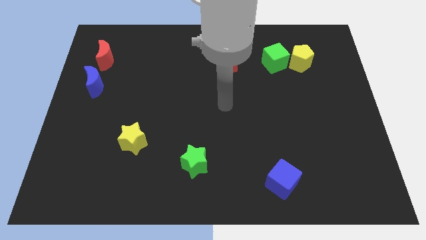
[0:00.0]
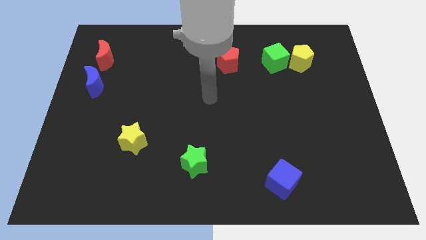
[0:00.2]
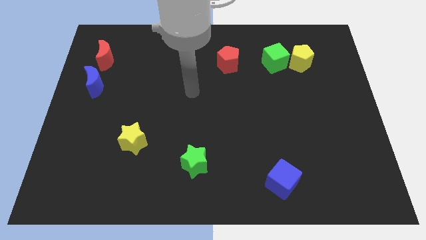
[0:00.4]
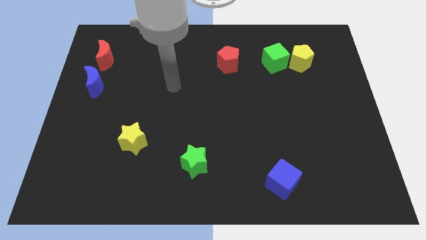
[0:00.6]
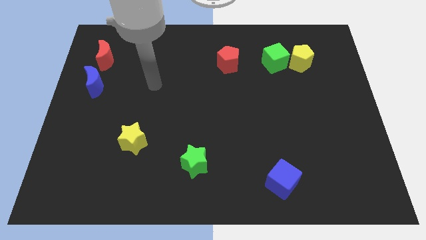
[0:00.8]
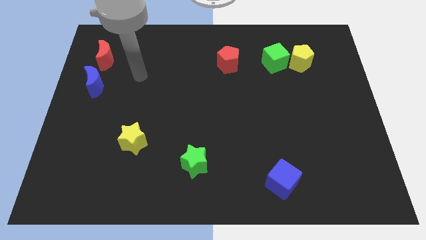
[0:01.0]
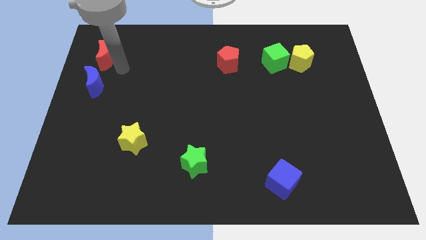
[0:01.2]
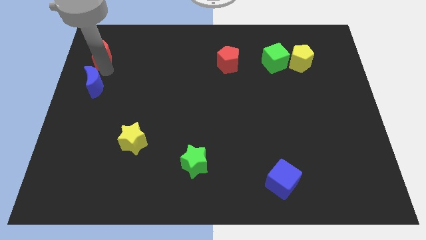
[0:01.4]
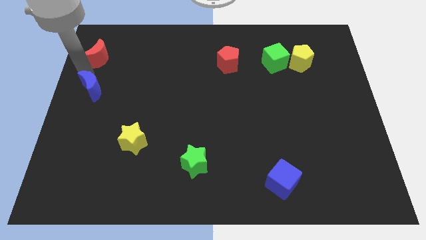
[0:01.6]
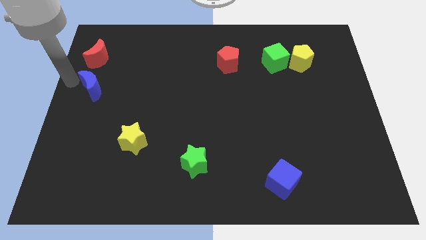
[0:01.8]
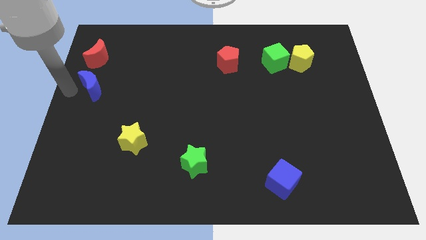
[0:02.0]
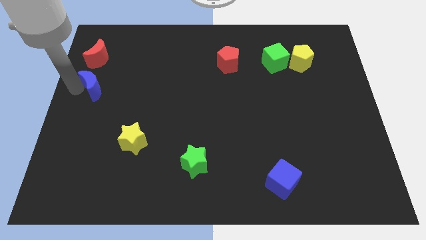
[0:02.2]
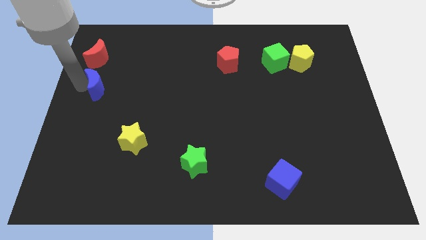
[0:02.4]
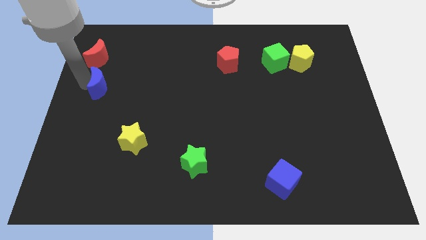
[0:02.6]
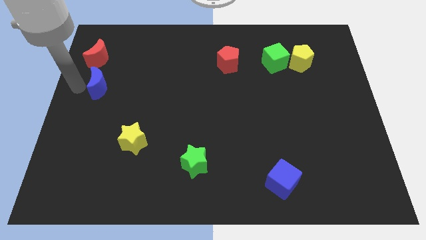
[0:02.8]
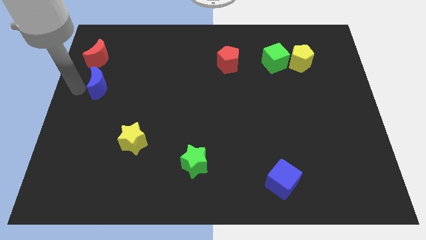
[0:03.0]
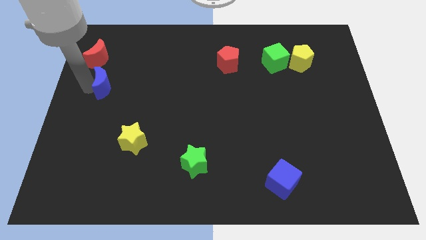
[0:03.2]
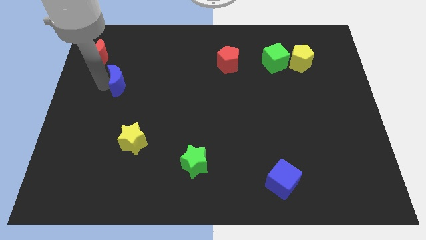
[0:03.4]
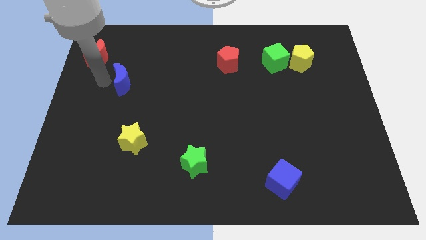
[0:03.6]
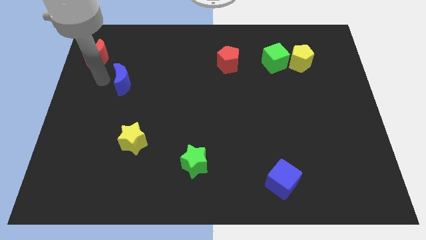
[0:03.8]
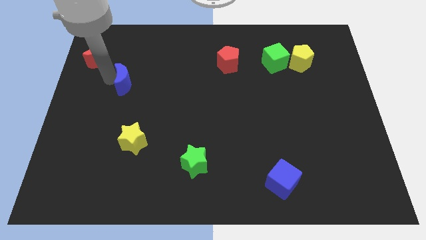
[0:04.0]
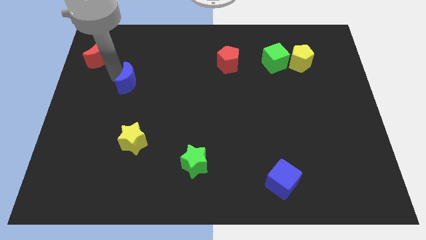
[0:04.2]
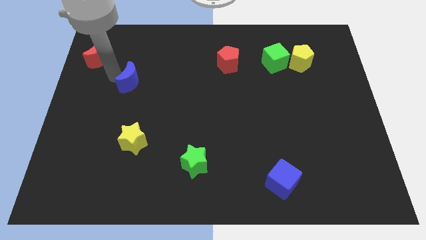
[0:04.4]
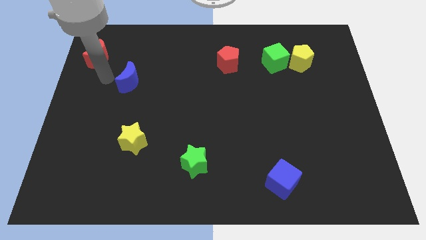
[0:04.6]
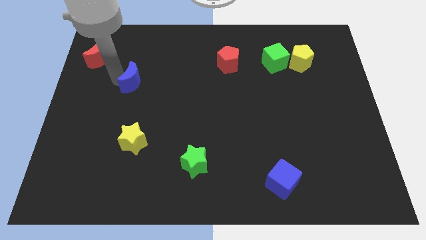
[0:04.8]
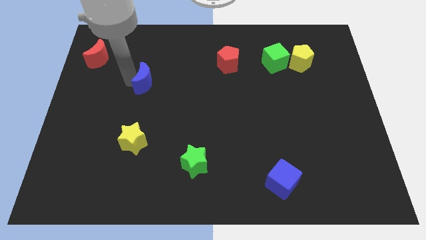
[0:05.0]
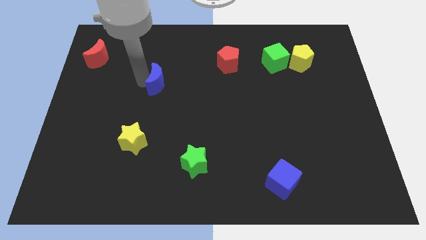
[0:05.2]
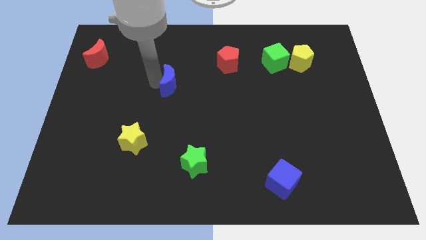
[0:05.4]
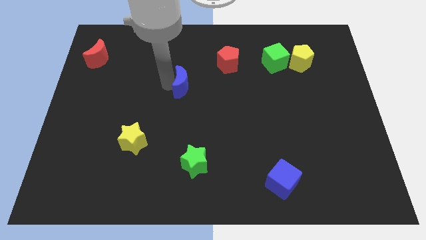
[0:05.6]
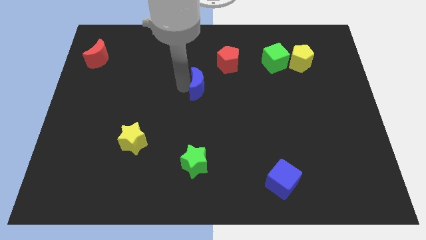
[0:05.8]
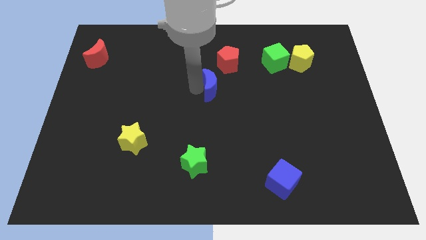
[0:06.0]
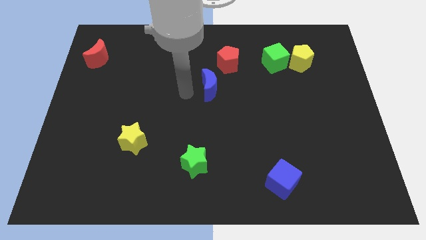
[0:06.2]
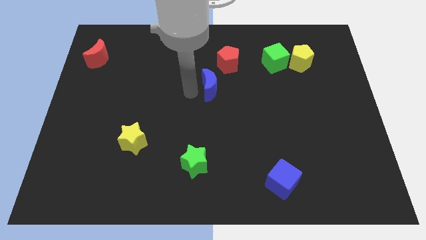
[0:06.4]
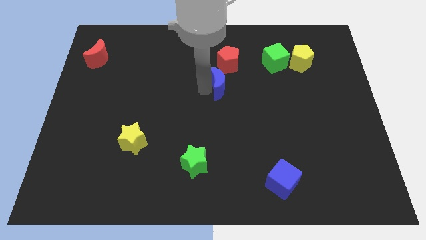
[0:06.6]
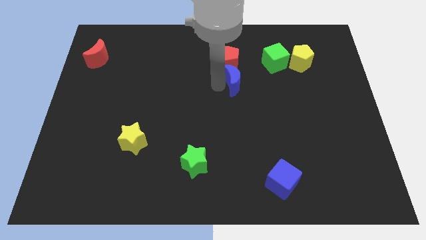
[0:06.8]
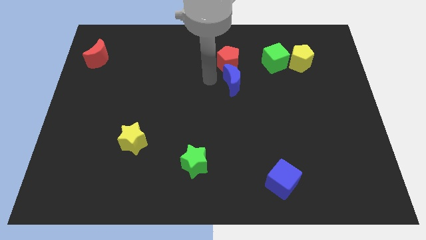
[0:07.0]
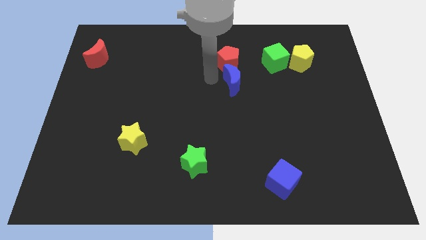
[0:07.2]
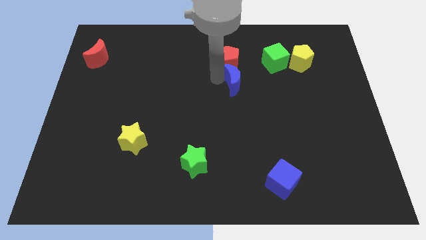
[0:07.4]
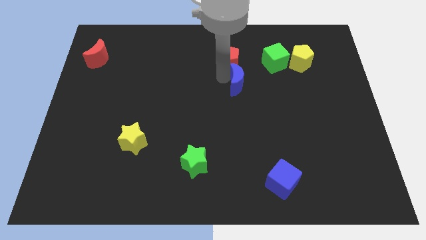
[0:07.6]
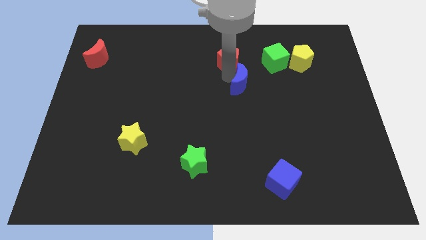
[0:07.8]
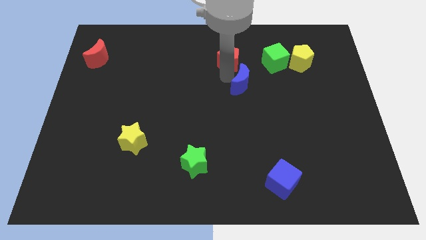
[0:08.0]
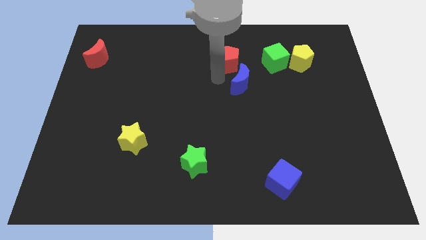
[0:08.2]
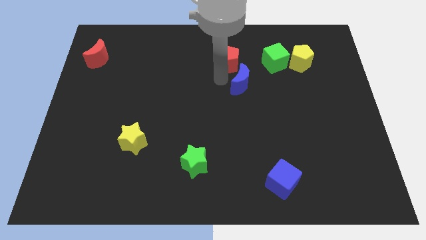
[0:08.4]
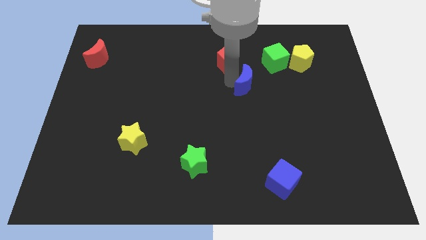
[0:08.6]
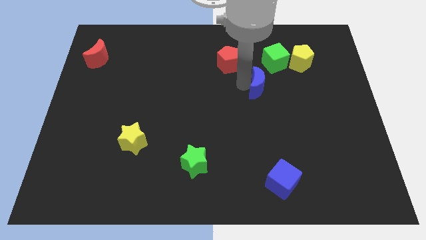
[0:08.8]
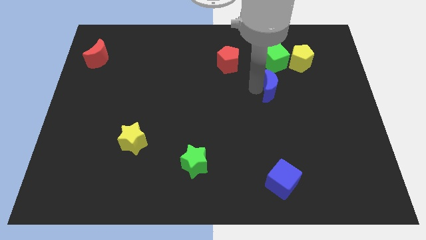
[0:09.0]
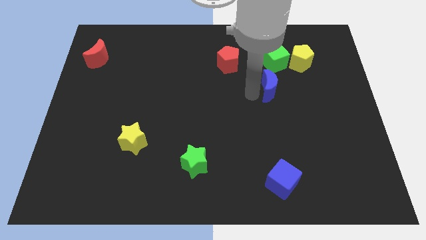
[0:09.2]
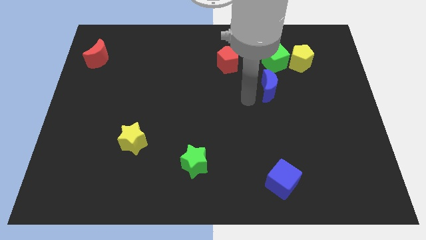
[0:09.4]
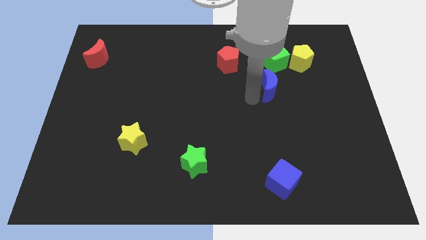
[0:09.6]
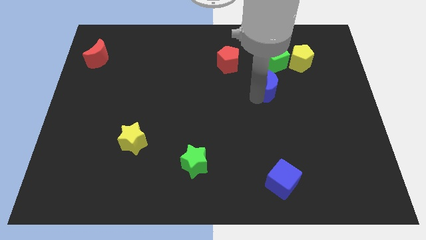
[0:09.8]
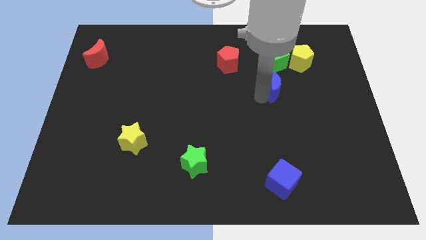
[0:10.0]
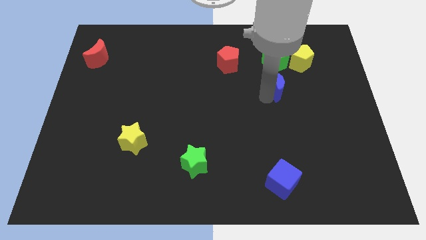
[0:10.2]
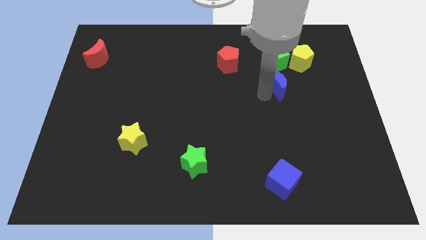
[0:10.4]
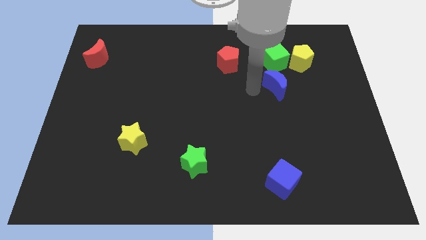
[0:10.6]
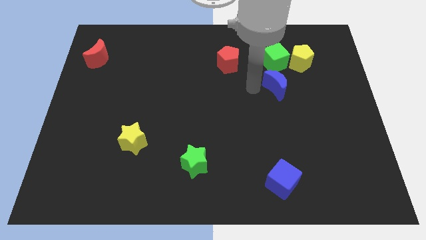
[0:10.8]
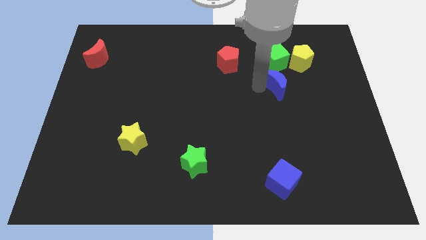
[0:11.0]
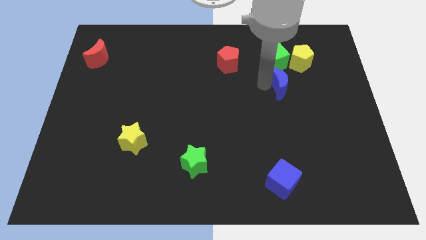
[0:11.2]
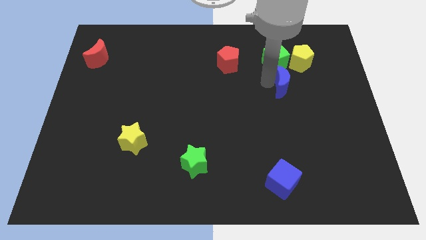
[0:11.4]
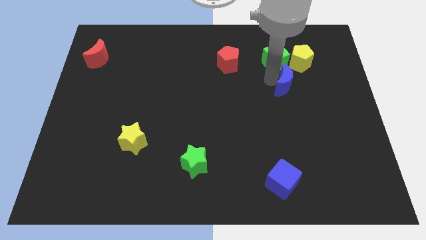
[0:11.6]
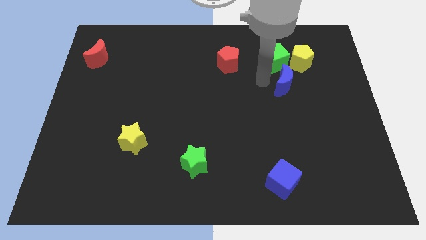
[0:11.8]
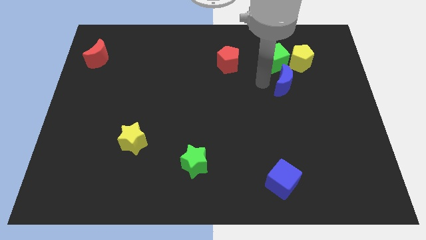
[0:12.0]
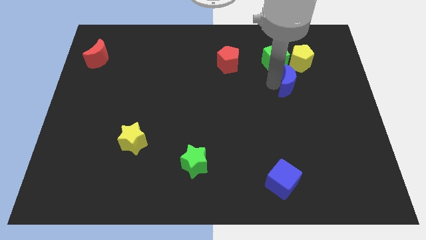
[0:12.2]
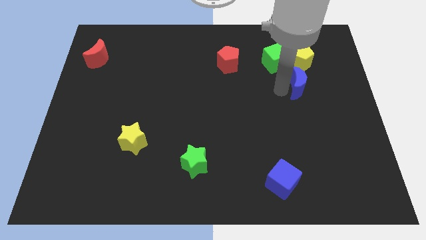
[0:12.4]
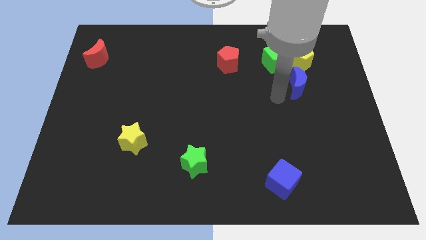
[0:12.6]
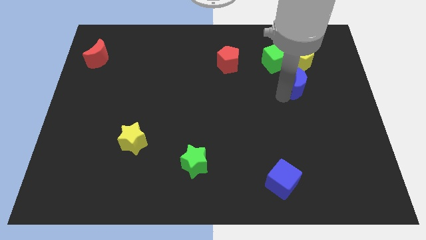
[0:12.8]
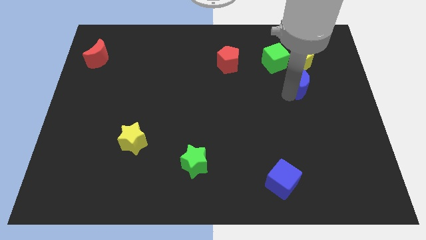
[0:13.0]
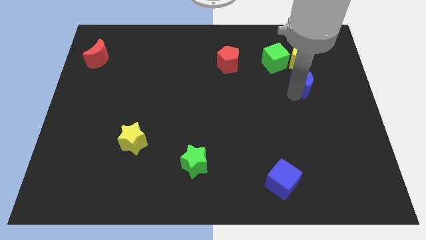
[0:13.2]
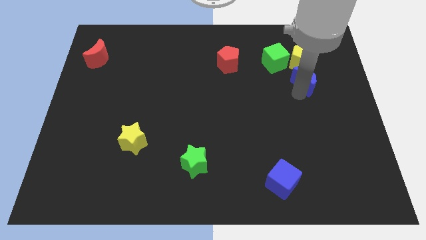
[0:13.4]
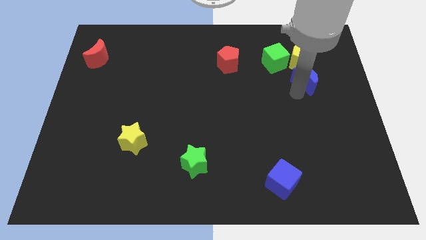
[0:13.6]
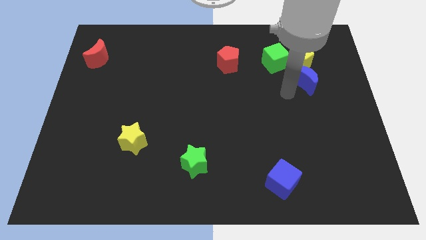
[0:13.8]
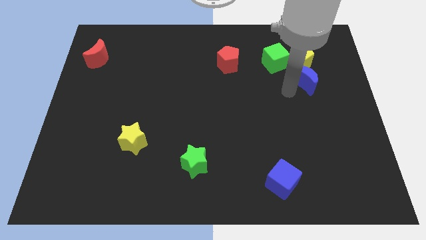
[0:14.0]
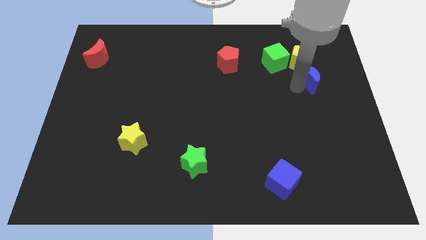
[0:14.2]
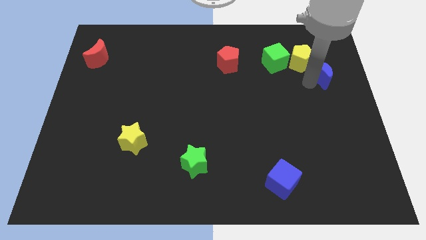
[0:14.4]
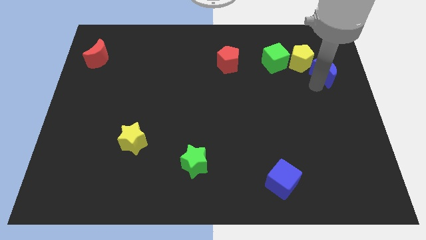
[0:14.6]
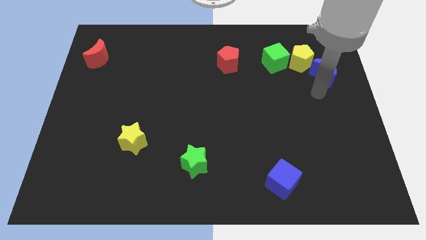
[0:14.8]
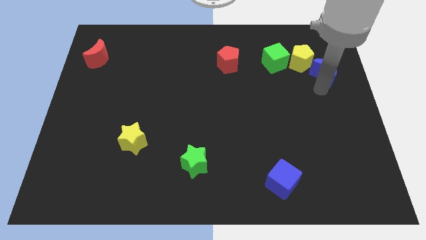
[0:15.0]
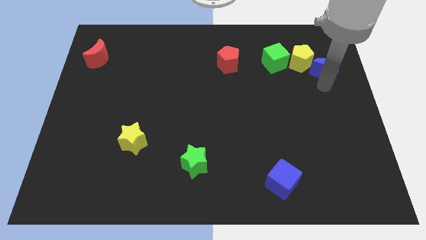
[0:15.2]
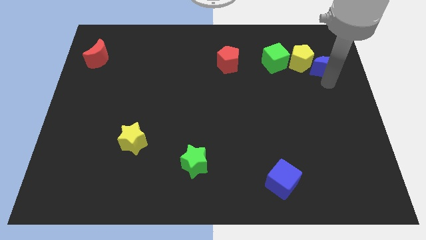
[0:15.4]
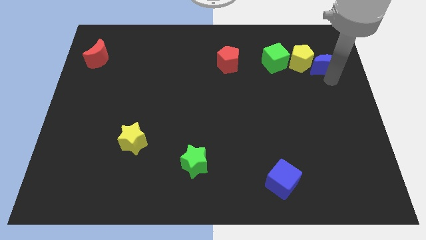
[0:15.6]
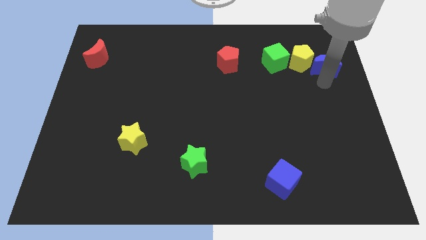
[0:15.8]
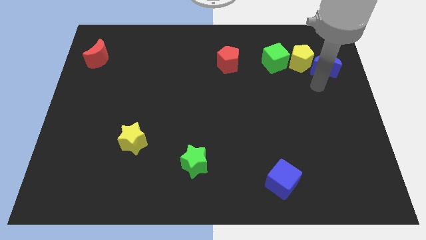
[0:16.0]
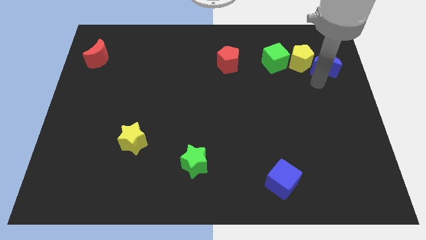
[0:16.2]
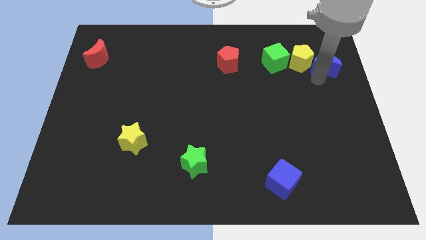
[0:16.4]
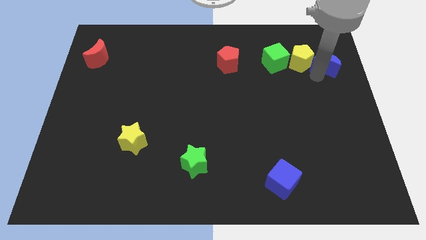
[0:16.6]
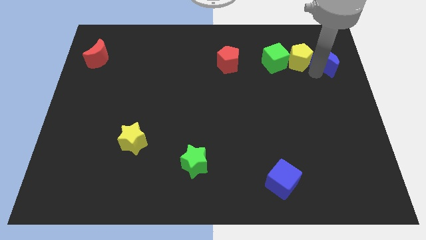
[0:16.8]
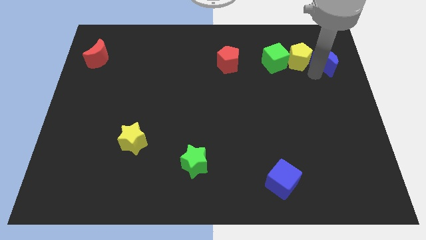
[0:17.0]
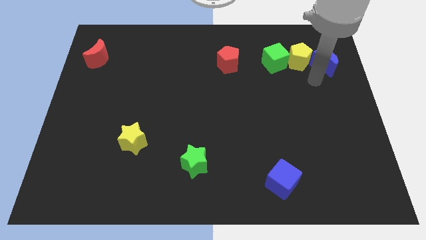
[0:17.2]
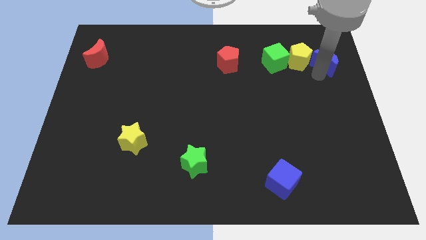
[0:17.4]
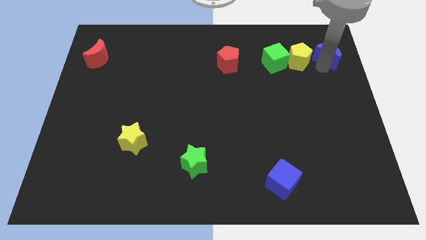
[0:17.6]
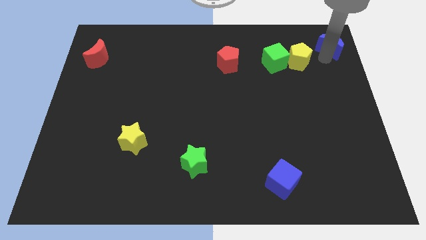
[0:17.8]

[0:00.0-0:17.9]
slide the blue moon to the top right
